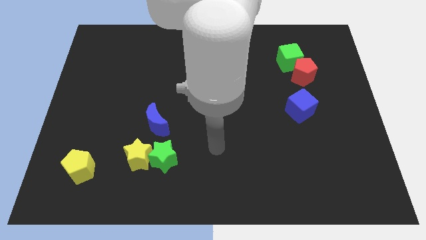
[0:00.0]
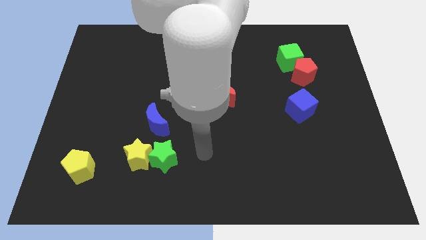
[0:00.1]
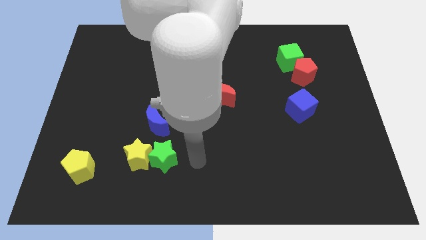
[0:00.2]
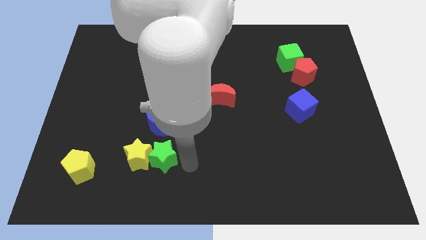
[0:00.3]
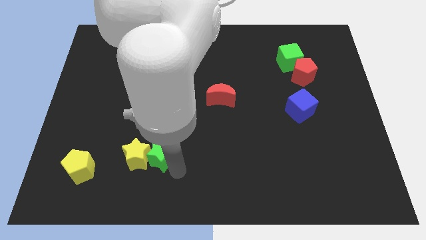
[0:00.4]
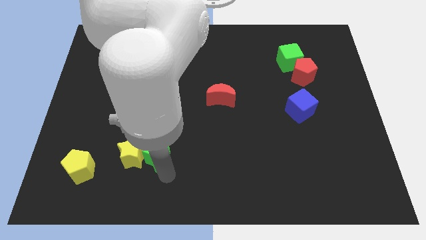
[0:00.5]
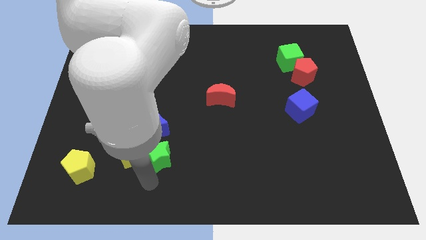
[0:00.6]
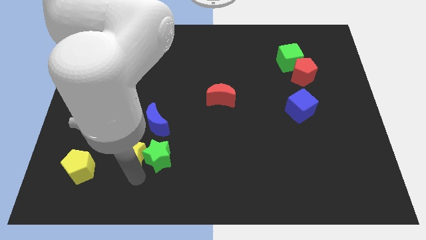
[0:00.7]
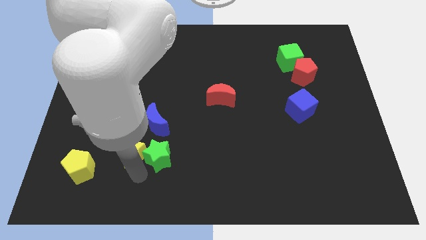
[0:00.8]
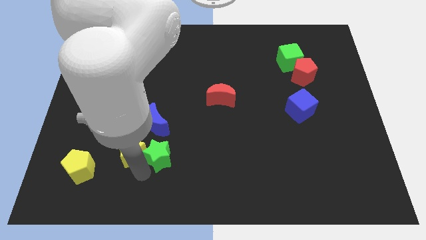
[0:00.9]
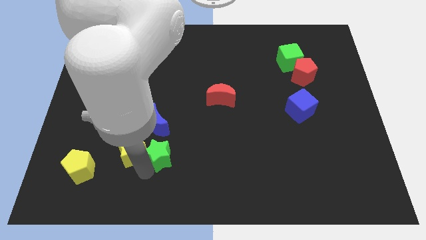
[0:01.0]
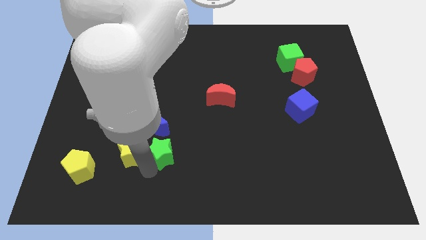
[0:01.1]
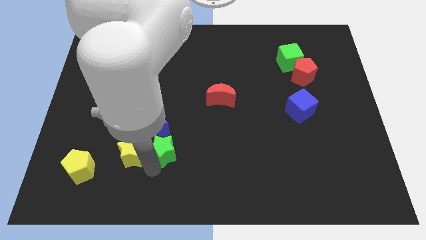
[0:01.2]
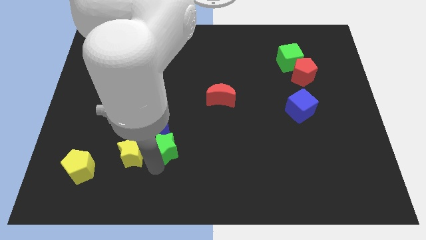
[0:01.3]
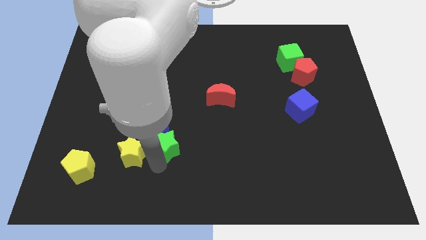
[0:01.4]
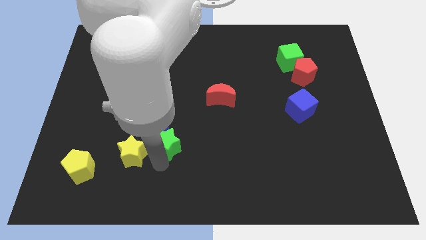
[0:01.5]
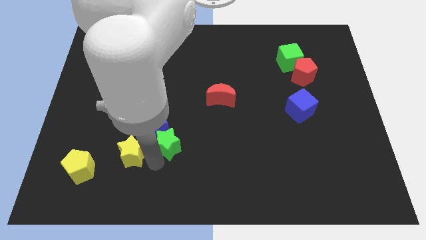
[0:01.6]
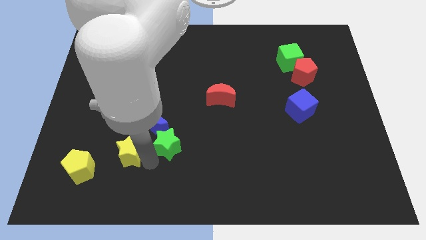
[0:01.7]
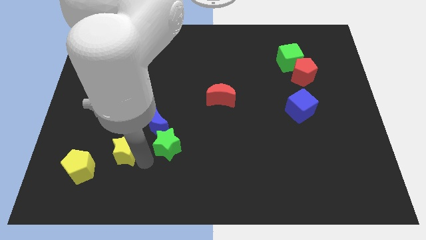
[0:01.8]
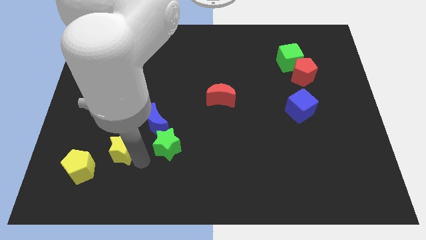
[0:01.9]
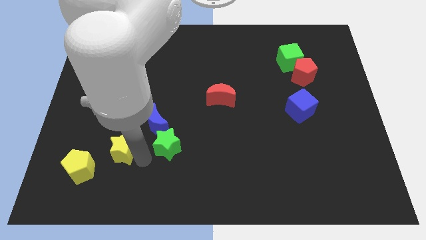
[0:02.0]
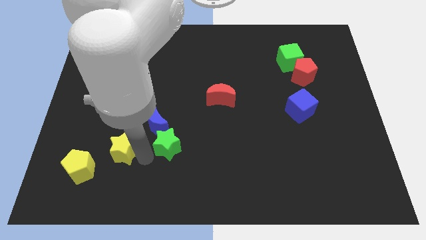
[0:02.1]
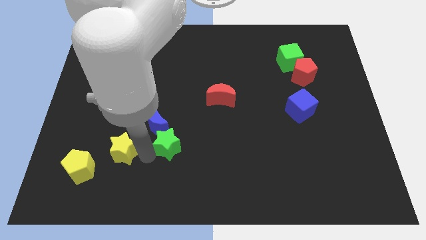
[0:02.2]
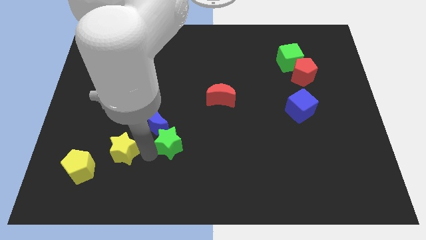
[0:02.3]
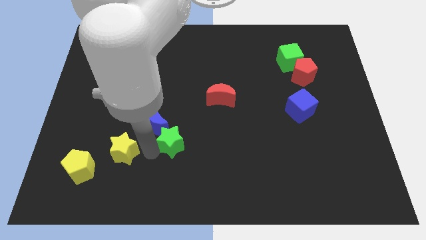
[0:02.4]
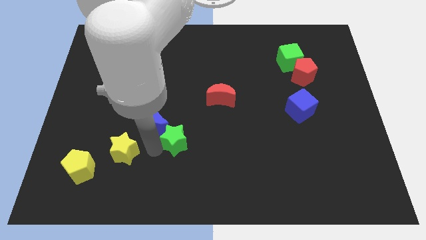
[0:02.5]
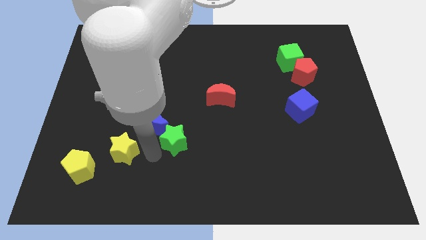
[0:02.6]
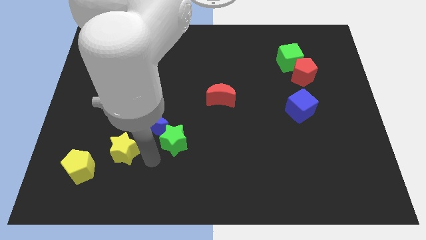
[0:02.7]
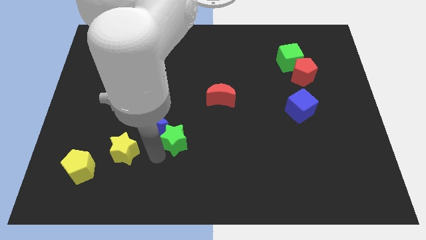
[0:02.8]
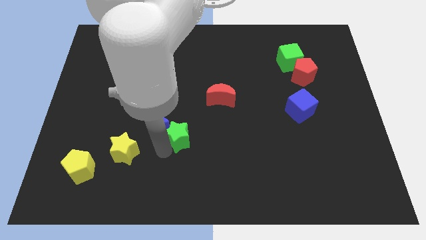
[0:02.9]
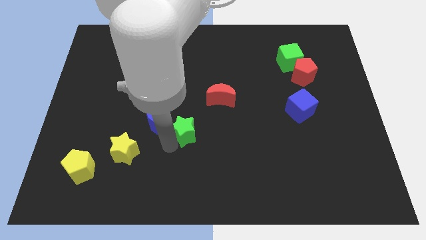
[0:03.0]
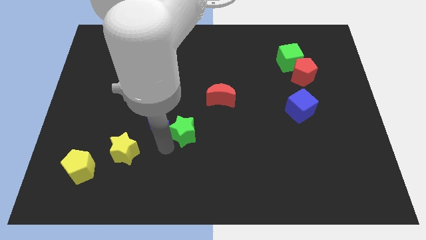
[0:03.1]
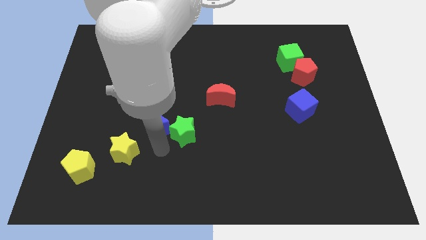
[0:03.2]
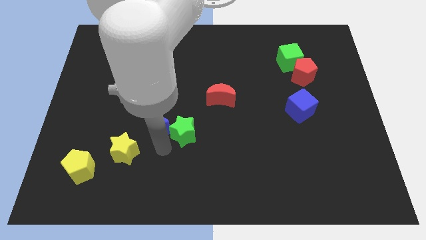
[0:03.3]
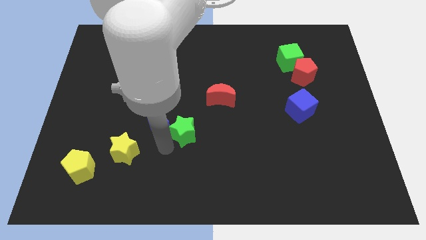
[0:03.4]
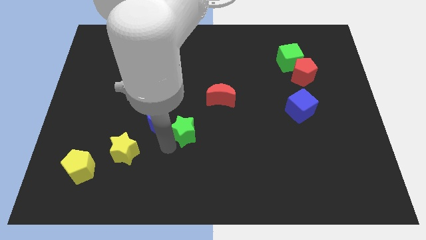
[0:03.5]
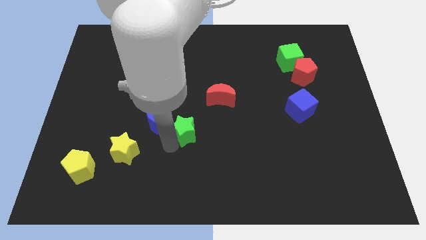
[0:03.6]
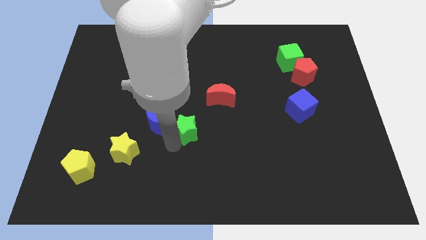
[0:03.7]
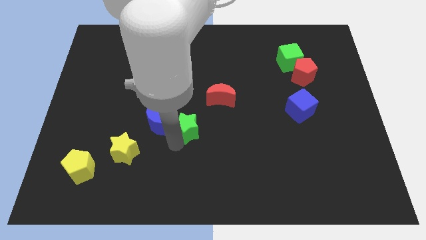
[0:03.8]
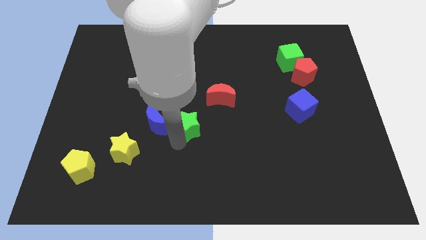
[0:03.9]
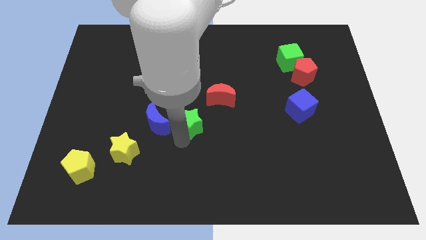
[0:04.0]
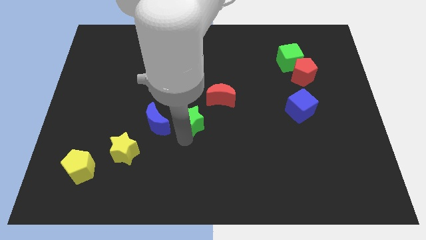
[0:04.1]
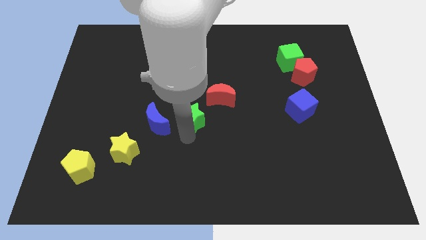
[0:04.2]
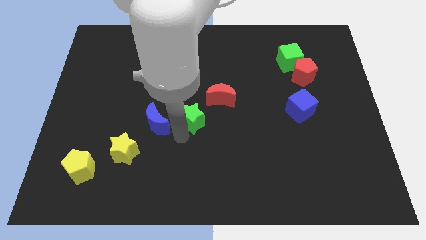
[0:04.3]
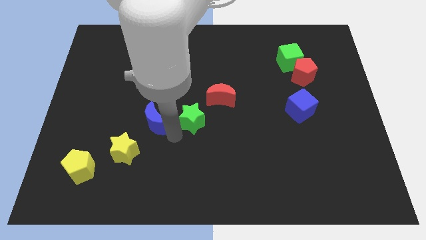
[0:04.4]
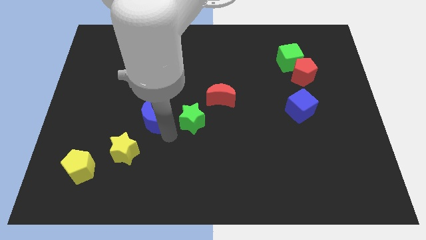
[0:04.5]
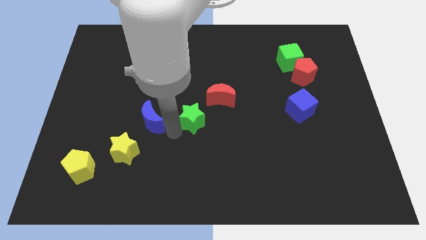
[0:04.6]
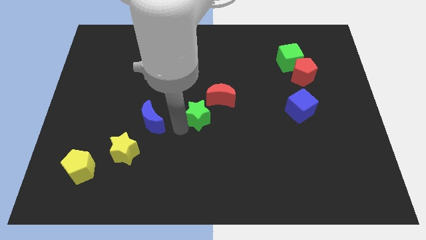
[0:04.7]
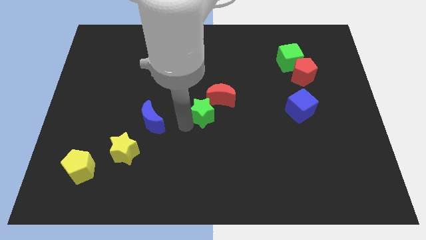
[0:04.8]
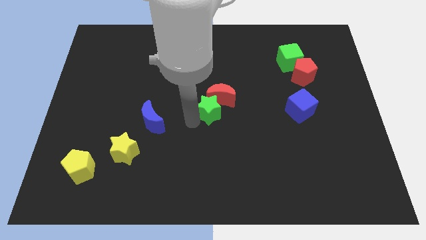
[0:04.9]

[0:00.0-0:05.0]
move the green star close to the red moon

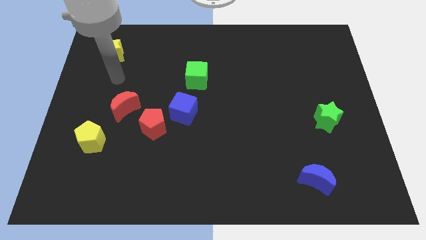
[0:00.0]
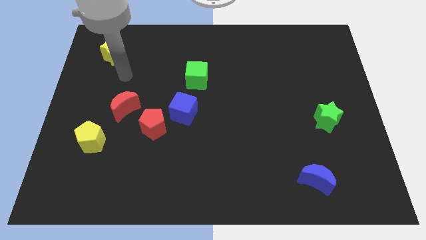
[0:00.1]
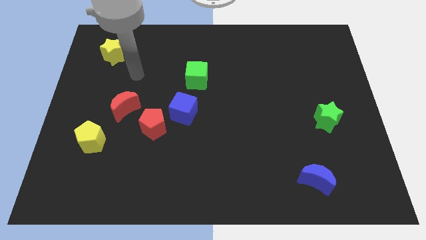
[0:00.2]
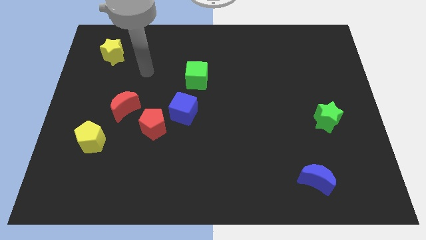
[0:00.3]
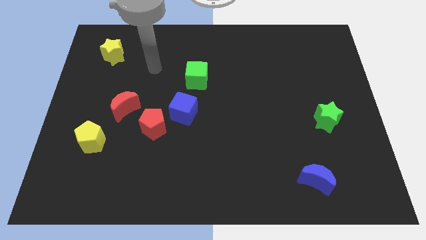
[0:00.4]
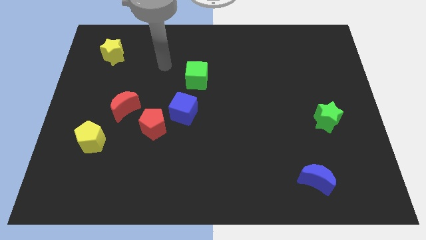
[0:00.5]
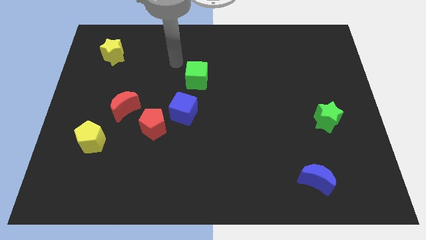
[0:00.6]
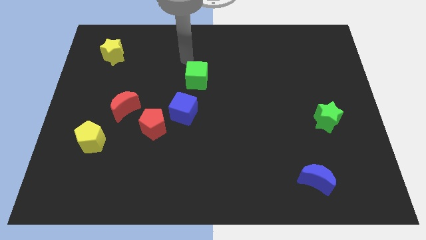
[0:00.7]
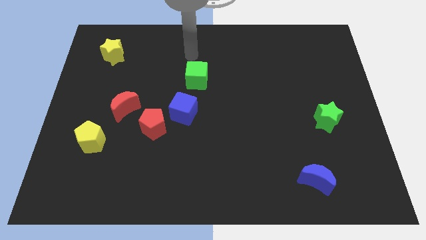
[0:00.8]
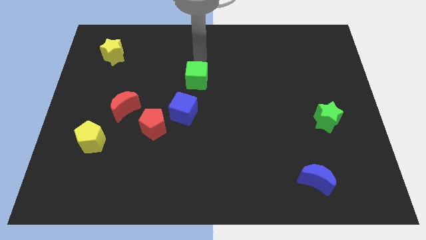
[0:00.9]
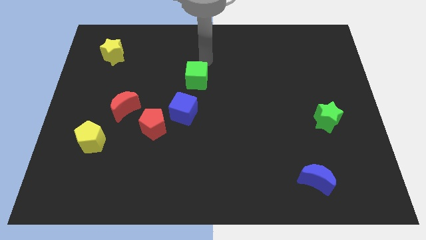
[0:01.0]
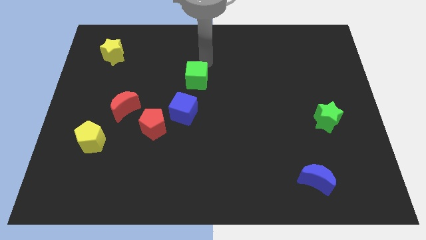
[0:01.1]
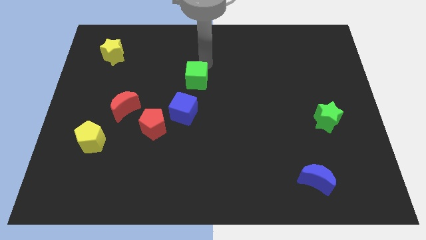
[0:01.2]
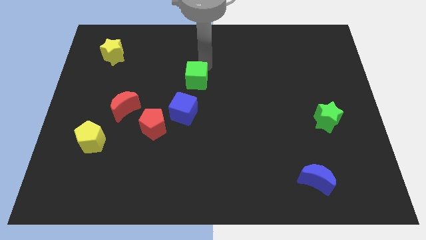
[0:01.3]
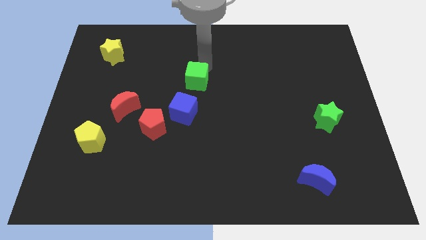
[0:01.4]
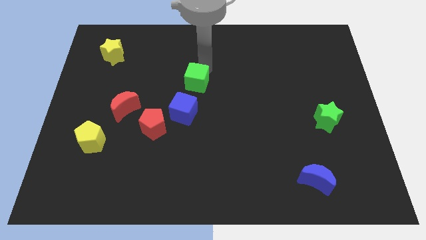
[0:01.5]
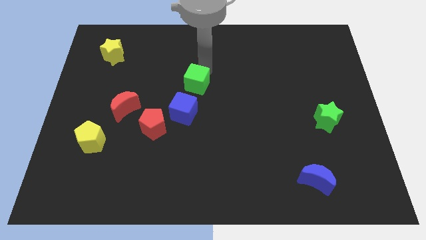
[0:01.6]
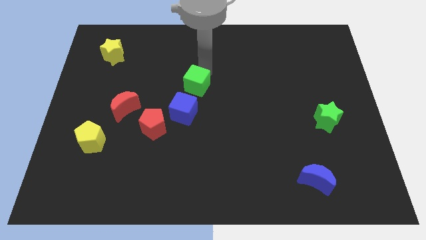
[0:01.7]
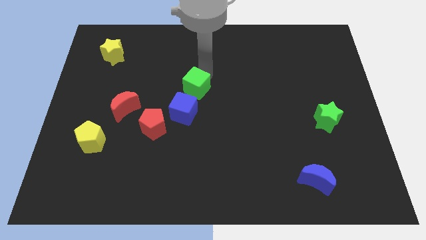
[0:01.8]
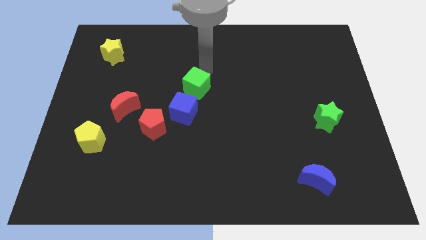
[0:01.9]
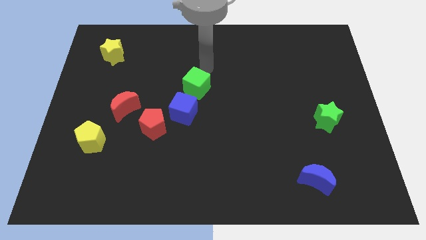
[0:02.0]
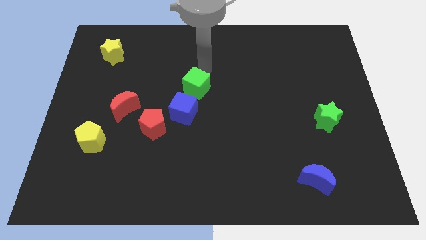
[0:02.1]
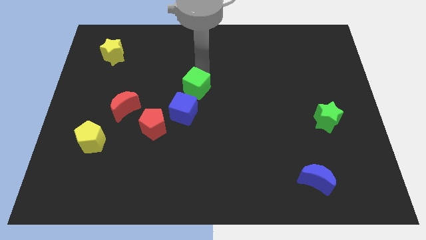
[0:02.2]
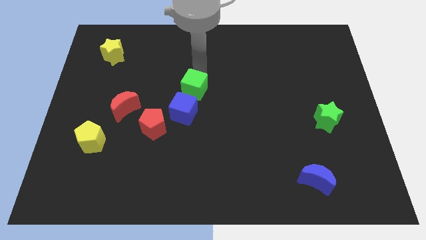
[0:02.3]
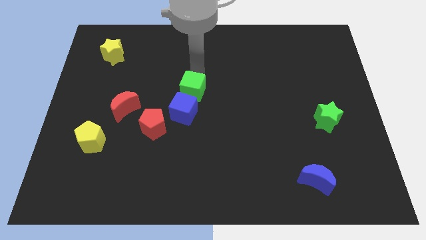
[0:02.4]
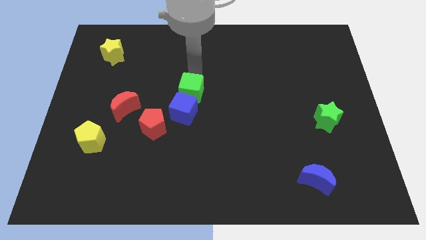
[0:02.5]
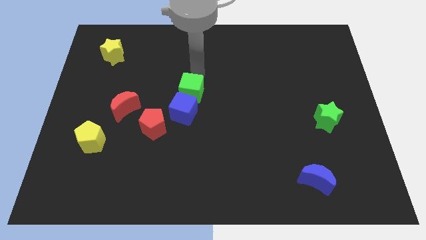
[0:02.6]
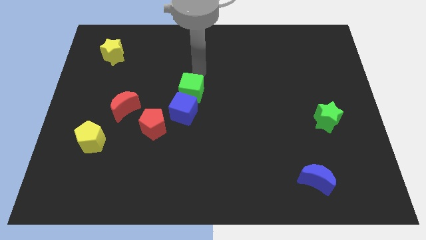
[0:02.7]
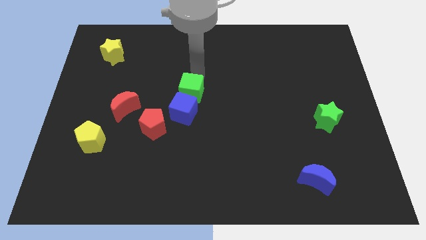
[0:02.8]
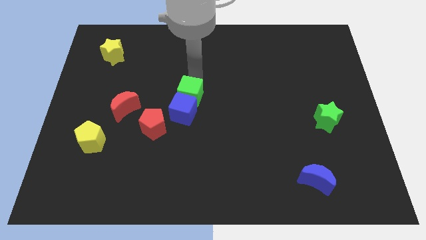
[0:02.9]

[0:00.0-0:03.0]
put the green cube next to the blue cube
